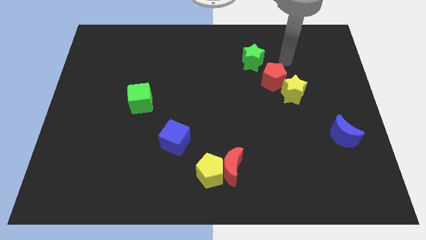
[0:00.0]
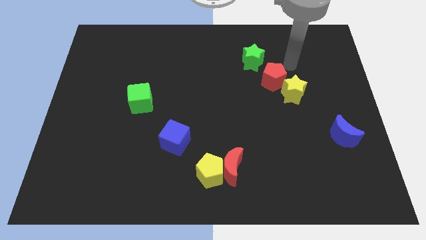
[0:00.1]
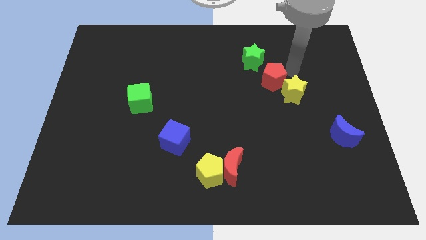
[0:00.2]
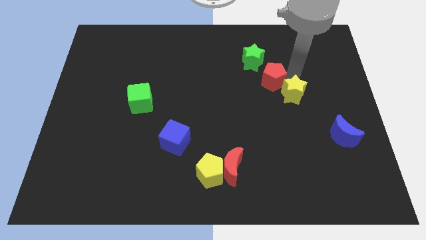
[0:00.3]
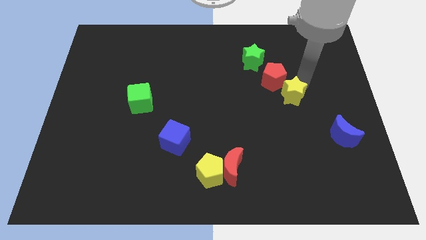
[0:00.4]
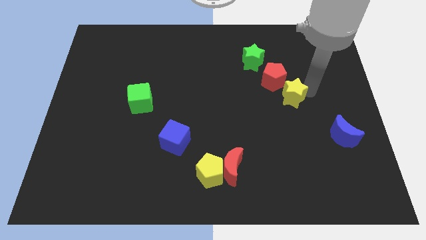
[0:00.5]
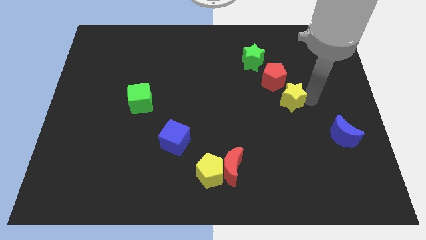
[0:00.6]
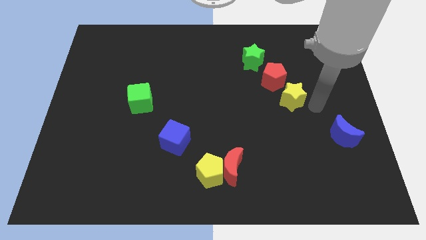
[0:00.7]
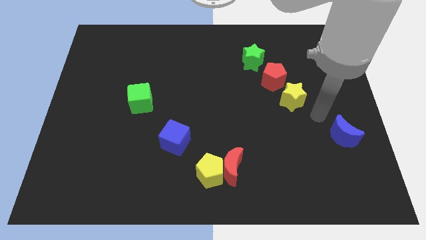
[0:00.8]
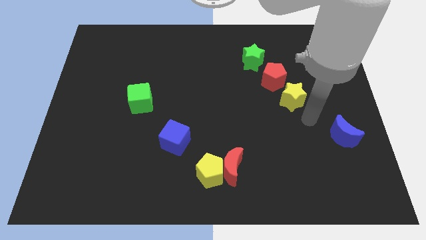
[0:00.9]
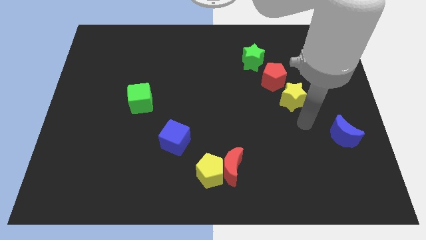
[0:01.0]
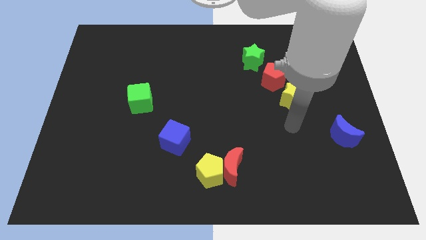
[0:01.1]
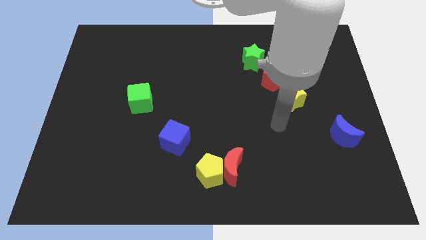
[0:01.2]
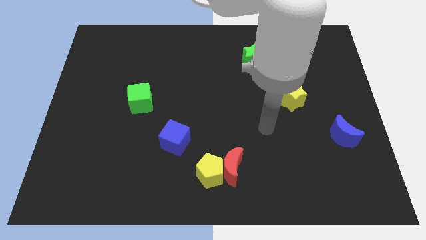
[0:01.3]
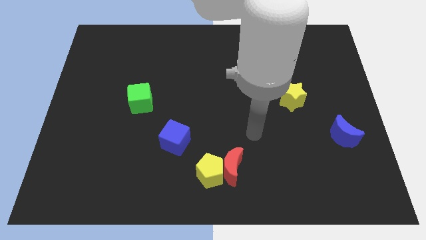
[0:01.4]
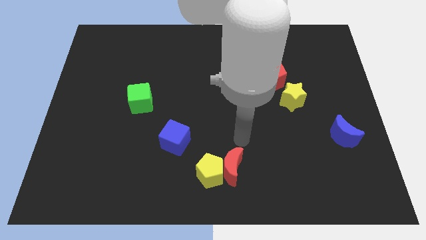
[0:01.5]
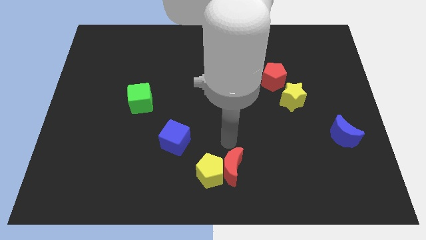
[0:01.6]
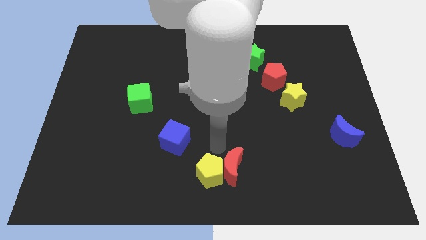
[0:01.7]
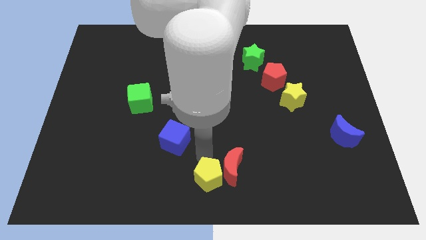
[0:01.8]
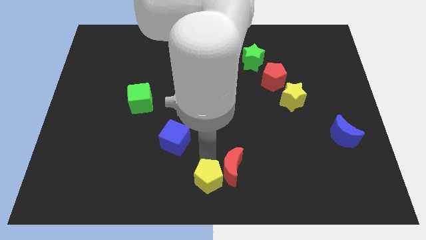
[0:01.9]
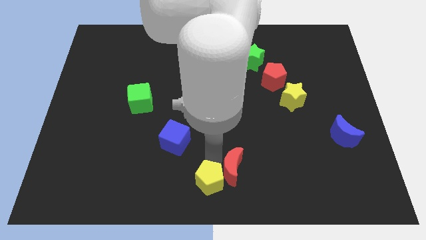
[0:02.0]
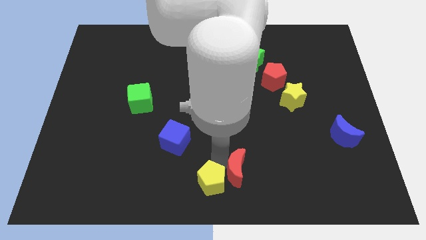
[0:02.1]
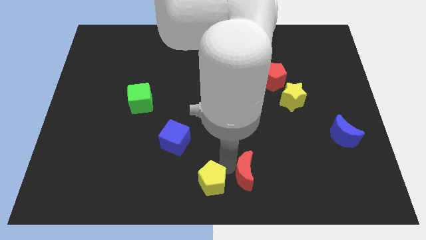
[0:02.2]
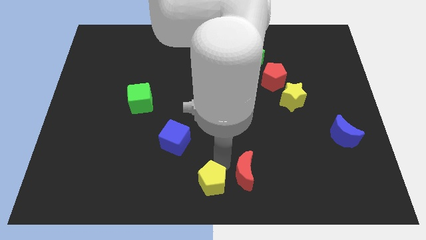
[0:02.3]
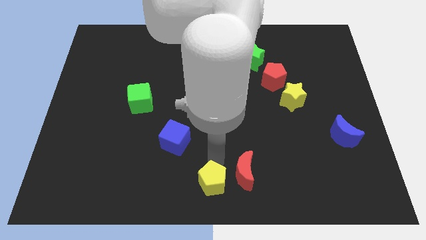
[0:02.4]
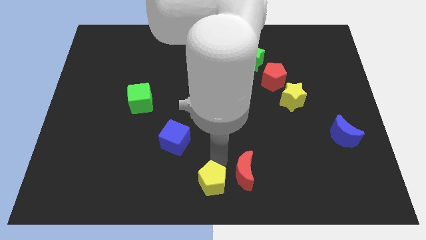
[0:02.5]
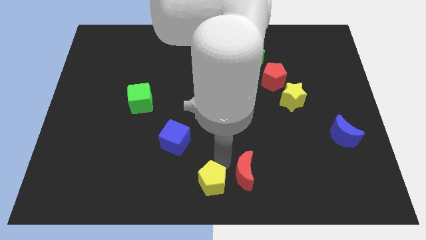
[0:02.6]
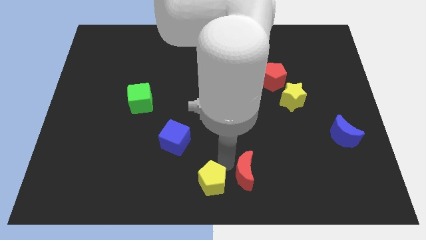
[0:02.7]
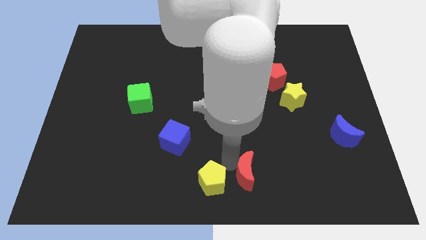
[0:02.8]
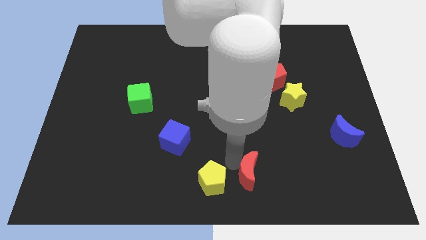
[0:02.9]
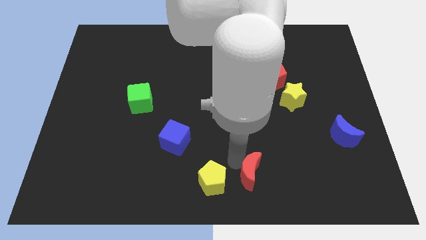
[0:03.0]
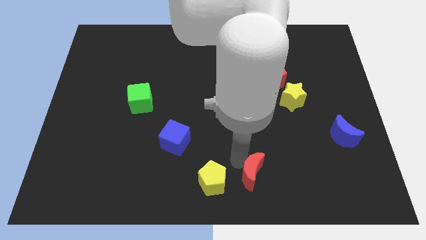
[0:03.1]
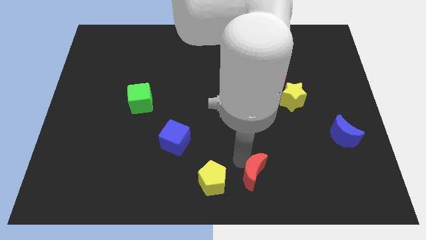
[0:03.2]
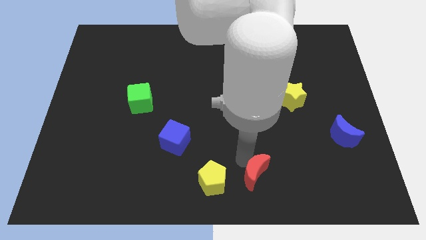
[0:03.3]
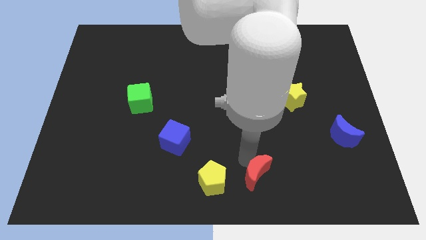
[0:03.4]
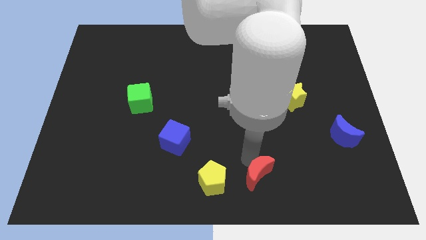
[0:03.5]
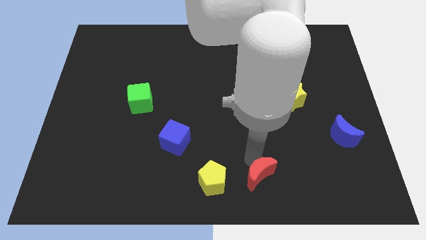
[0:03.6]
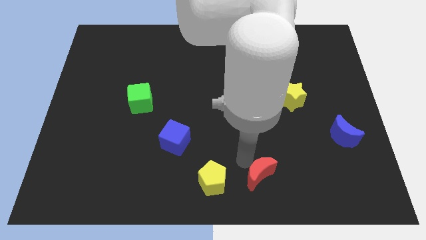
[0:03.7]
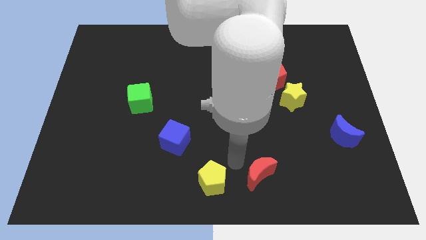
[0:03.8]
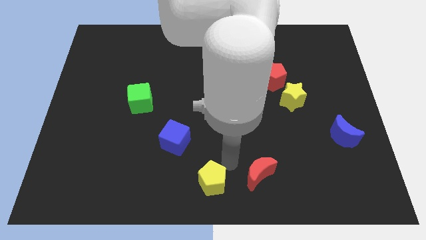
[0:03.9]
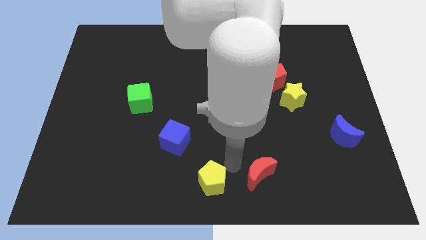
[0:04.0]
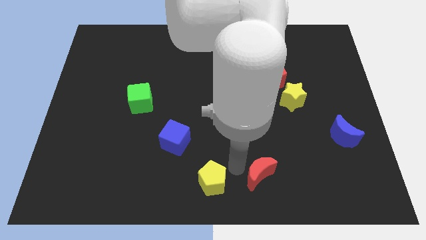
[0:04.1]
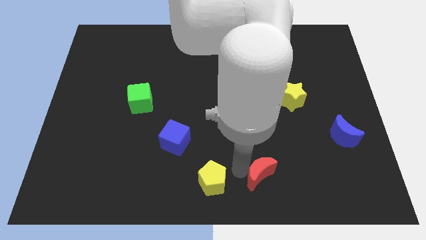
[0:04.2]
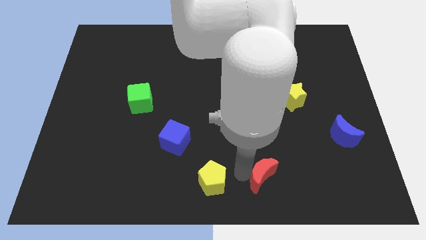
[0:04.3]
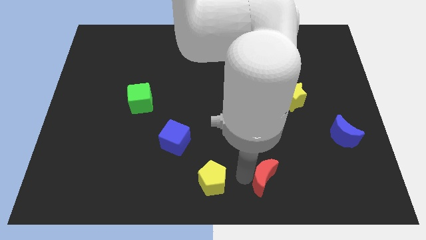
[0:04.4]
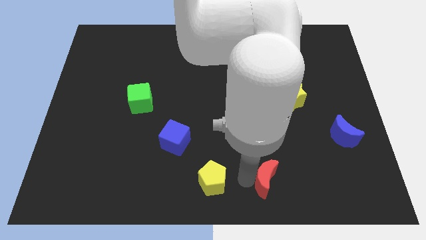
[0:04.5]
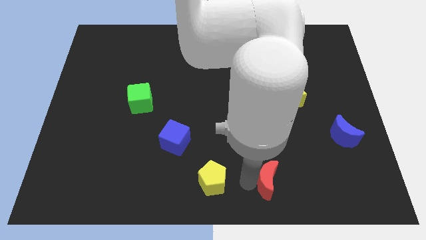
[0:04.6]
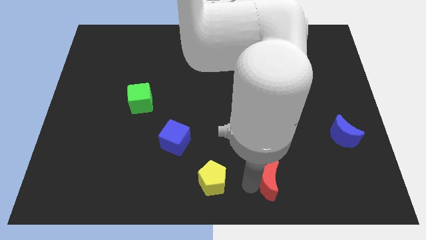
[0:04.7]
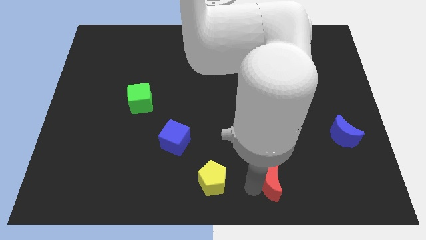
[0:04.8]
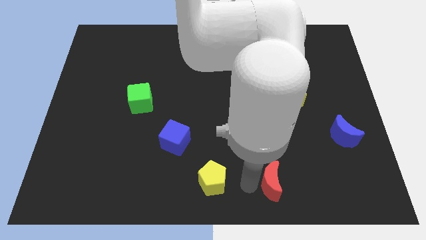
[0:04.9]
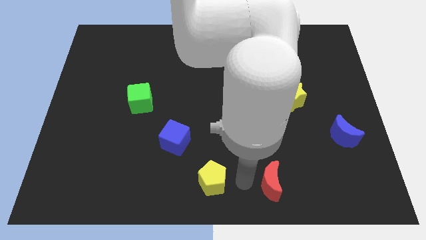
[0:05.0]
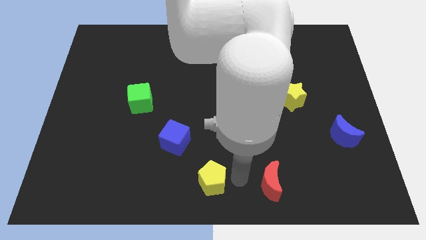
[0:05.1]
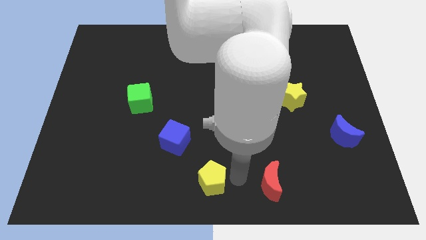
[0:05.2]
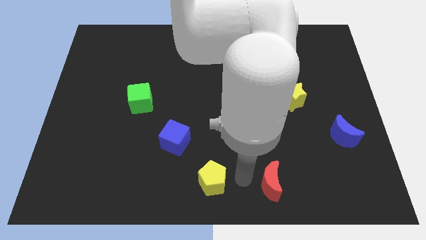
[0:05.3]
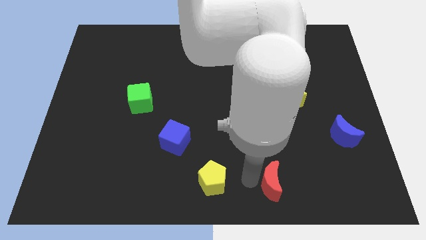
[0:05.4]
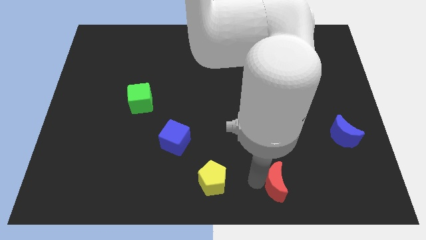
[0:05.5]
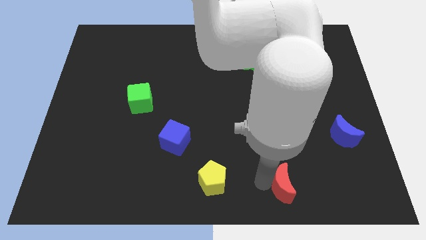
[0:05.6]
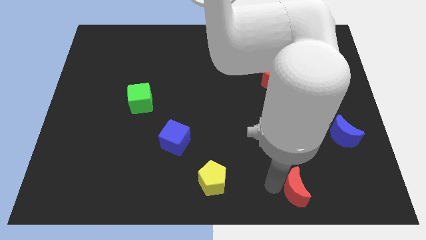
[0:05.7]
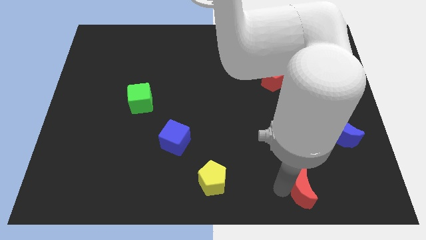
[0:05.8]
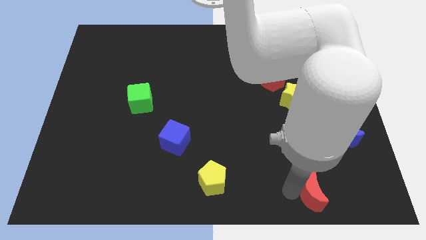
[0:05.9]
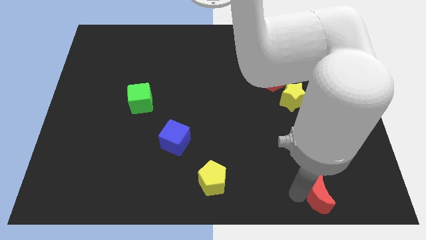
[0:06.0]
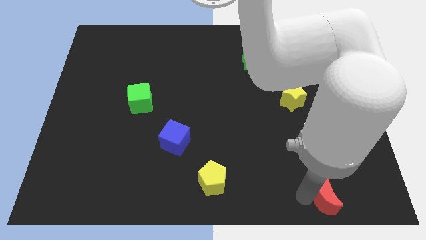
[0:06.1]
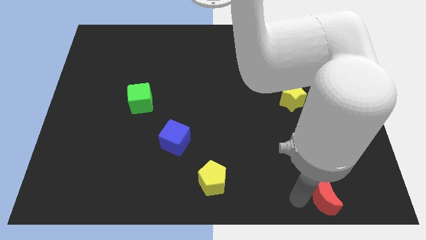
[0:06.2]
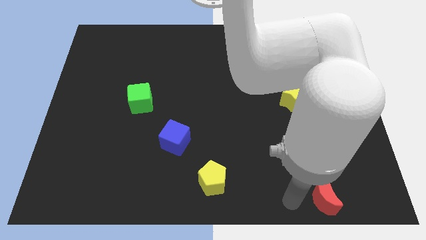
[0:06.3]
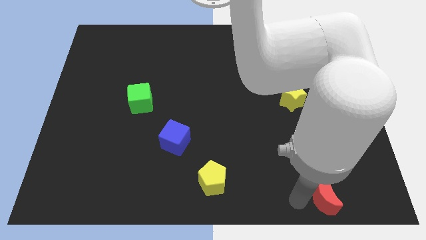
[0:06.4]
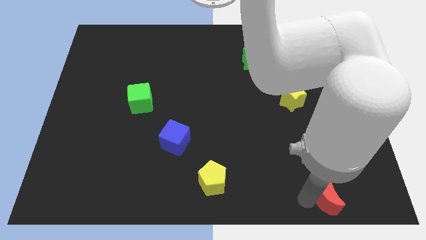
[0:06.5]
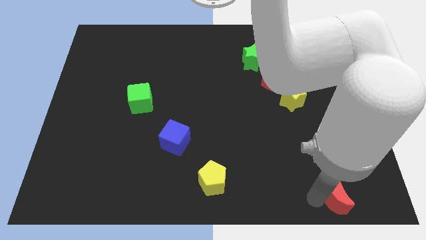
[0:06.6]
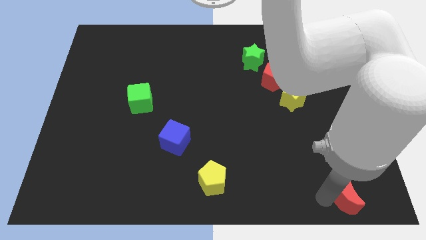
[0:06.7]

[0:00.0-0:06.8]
slide the red moon to the bottom right corner
